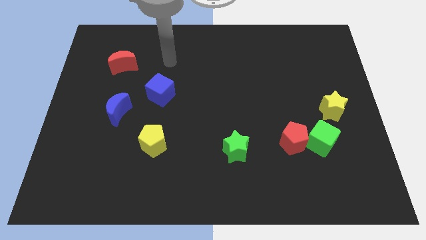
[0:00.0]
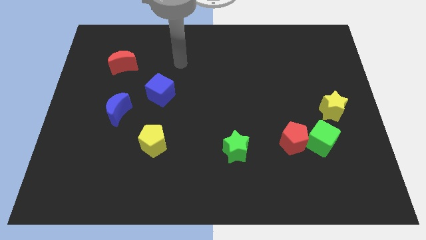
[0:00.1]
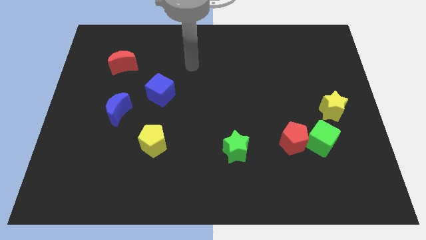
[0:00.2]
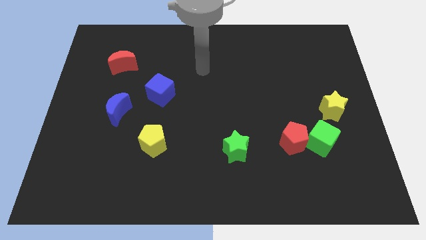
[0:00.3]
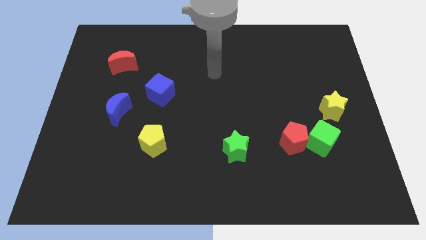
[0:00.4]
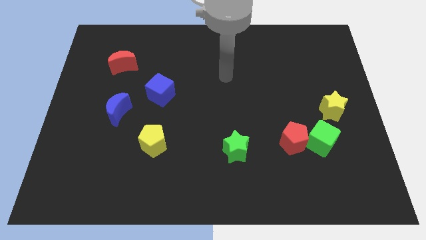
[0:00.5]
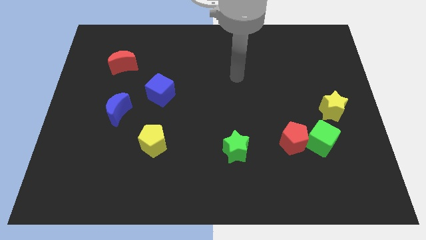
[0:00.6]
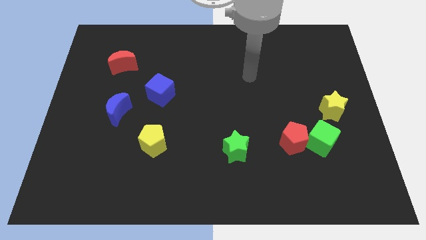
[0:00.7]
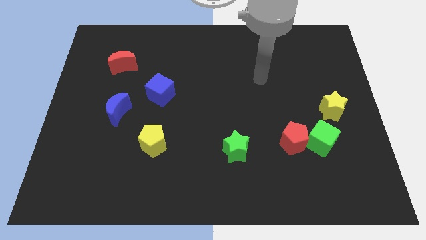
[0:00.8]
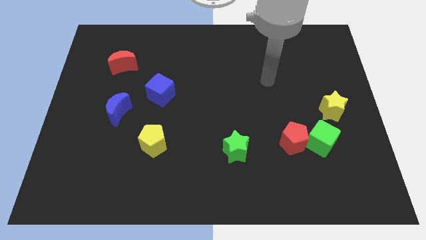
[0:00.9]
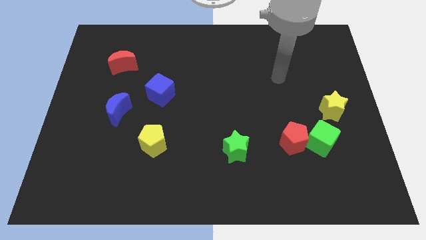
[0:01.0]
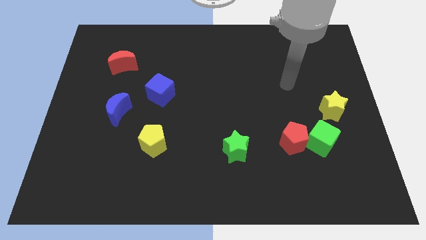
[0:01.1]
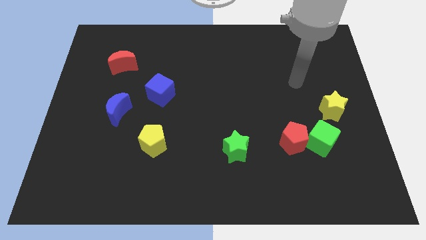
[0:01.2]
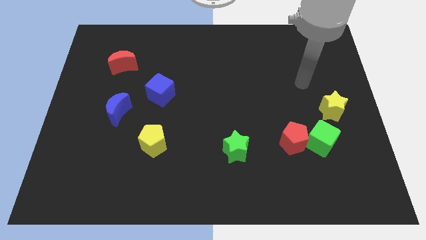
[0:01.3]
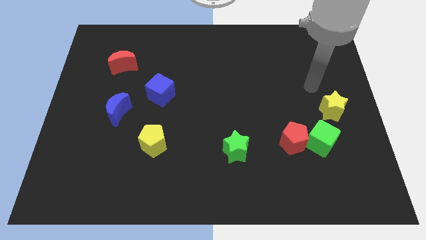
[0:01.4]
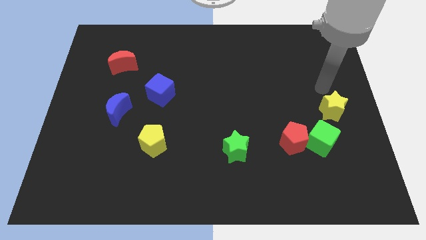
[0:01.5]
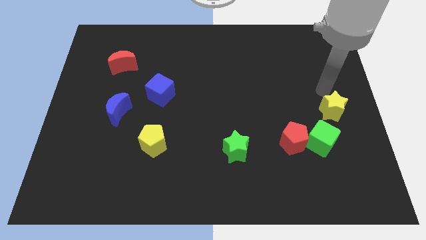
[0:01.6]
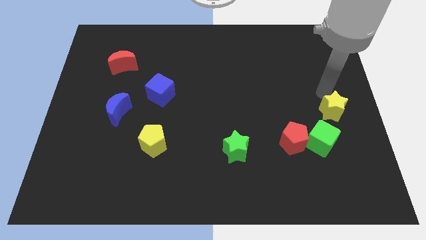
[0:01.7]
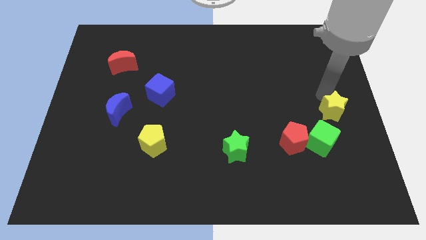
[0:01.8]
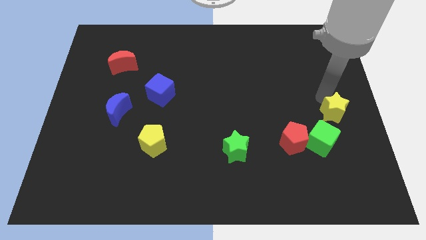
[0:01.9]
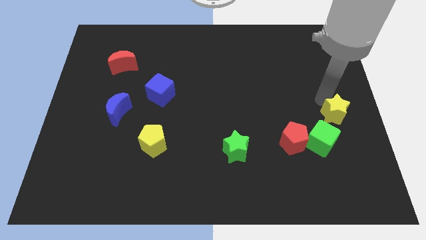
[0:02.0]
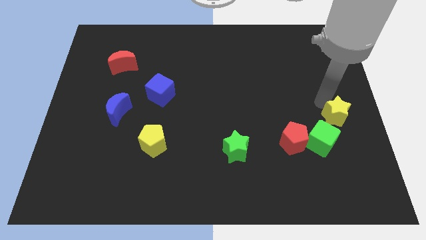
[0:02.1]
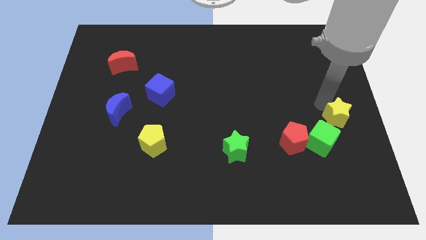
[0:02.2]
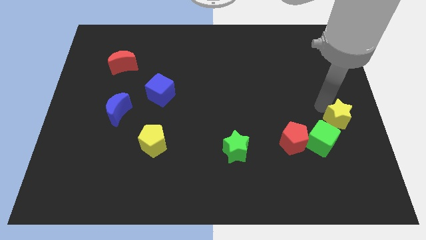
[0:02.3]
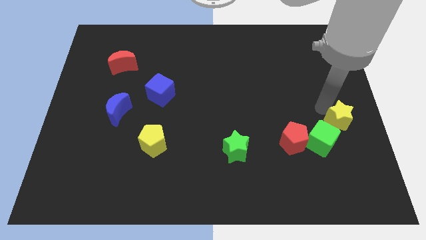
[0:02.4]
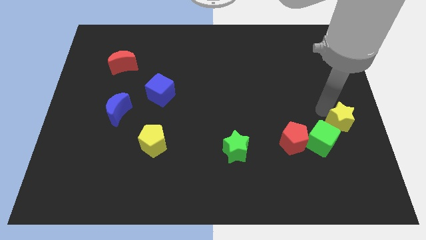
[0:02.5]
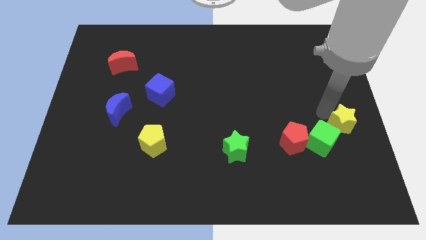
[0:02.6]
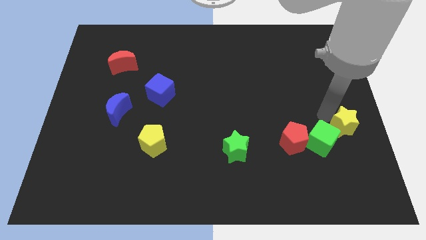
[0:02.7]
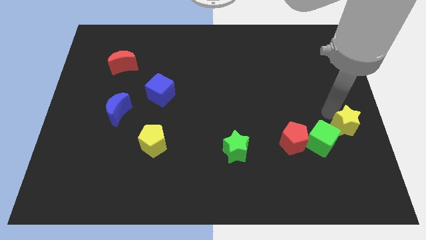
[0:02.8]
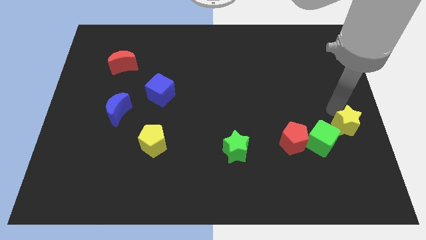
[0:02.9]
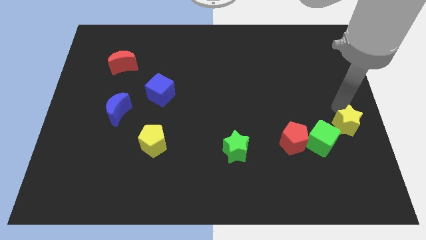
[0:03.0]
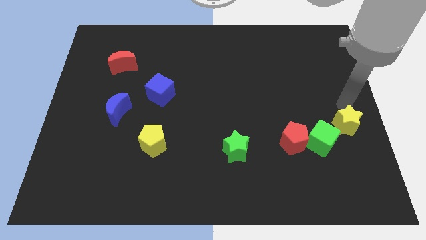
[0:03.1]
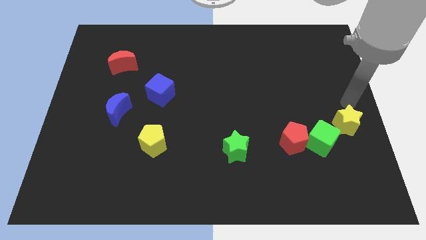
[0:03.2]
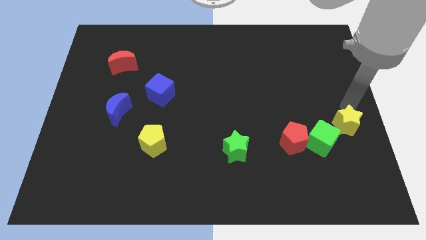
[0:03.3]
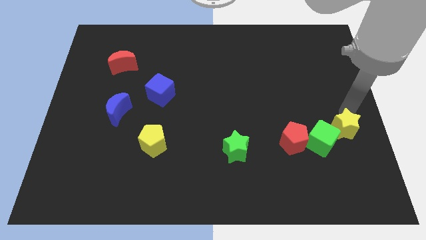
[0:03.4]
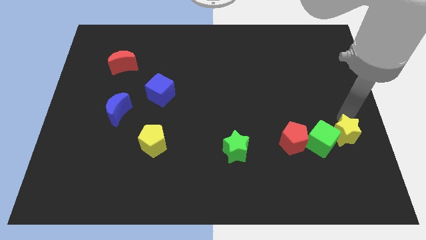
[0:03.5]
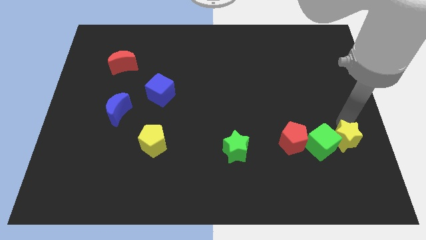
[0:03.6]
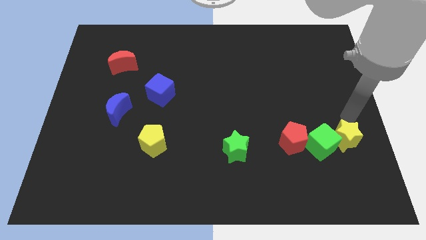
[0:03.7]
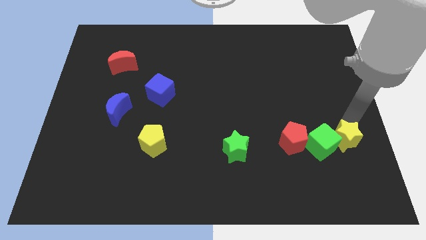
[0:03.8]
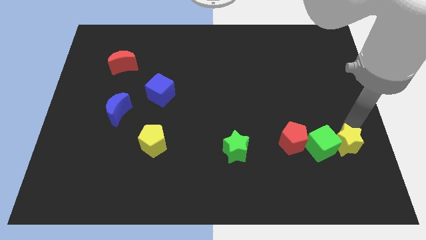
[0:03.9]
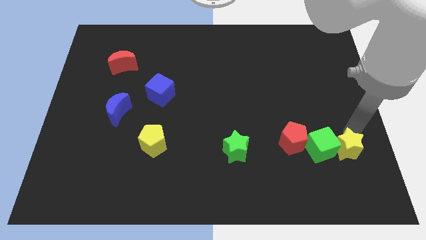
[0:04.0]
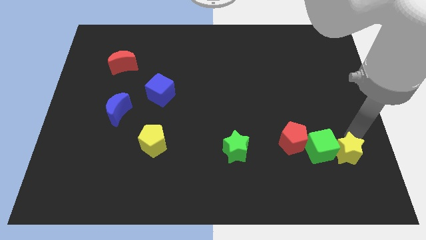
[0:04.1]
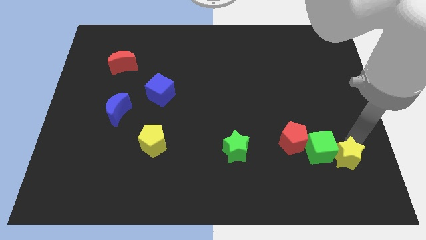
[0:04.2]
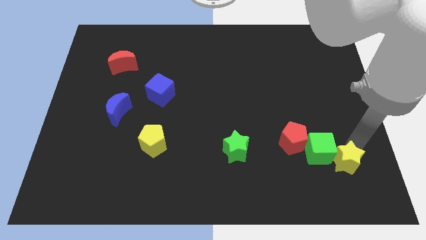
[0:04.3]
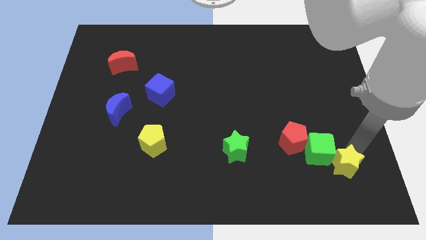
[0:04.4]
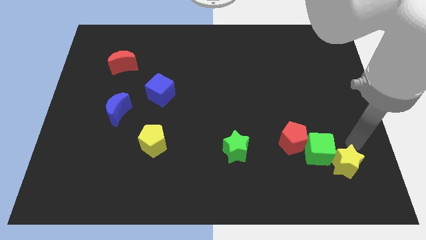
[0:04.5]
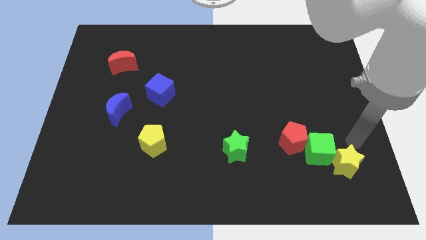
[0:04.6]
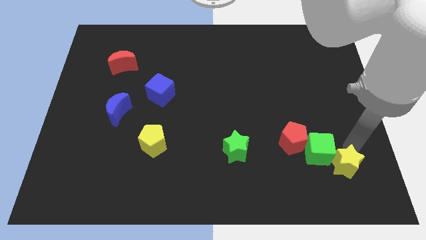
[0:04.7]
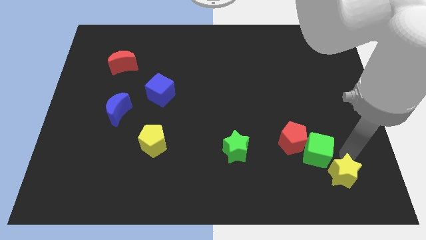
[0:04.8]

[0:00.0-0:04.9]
push the yellow star below the green cube

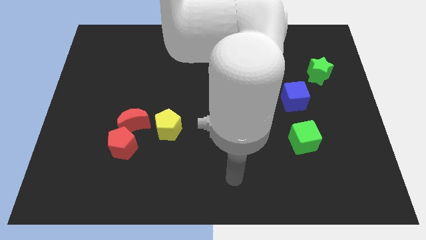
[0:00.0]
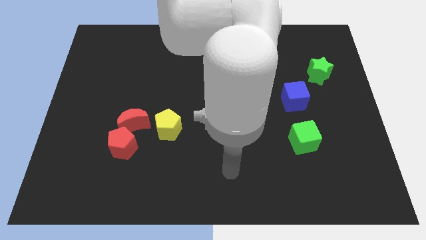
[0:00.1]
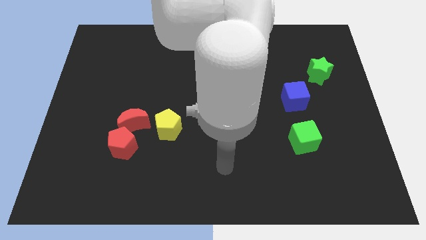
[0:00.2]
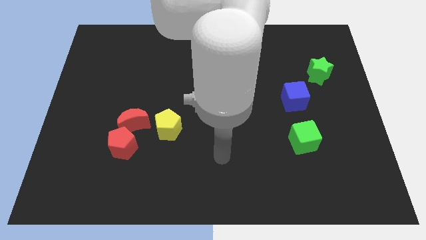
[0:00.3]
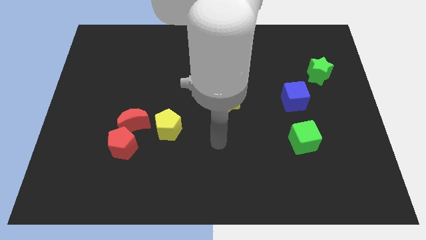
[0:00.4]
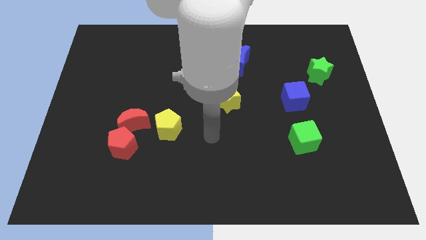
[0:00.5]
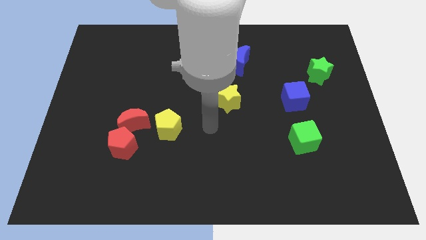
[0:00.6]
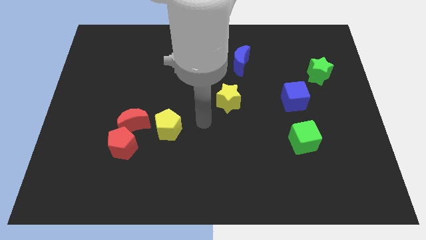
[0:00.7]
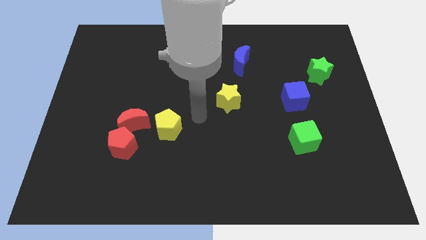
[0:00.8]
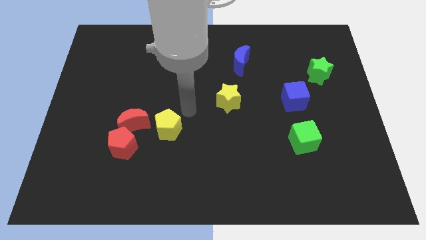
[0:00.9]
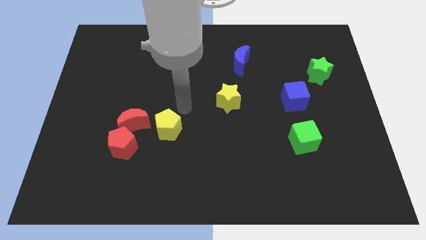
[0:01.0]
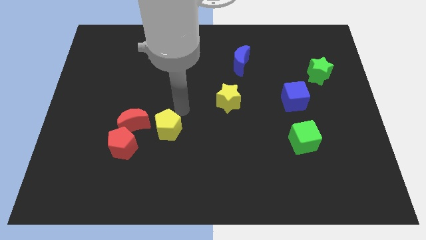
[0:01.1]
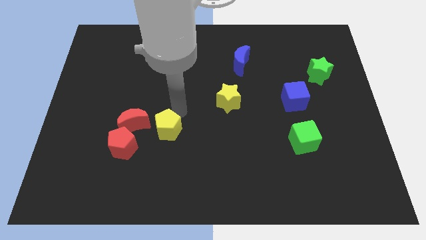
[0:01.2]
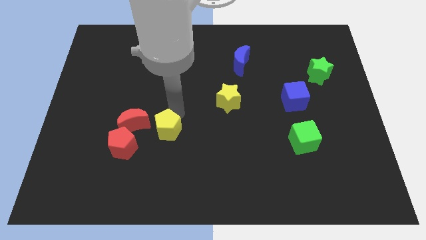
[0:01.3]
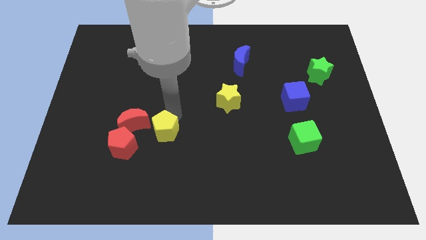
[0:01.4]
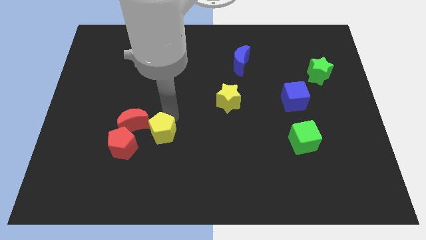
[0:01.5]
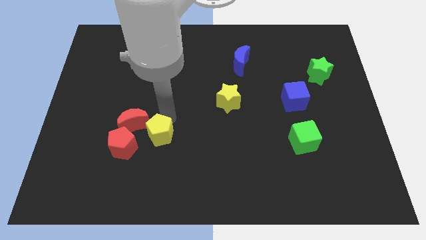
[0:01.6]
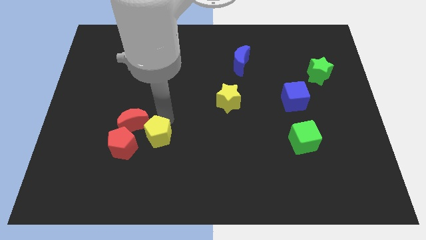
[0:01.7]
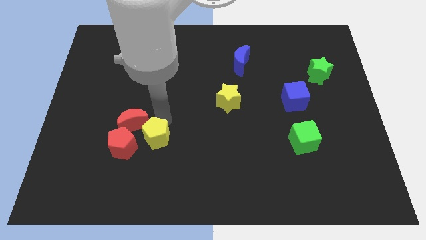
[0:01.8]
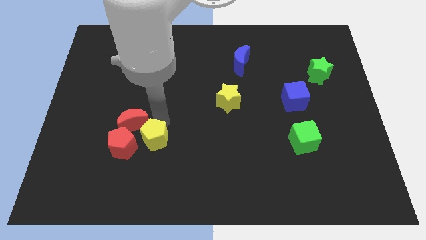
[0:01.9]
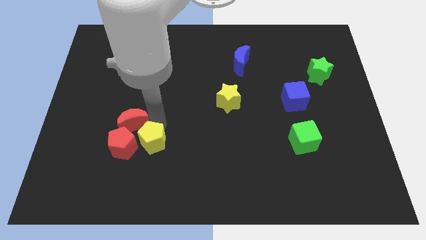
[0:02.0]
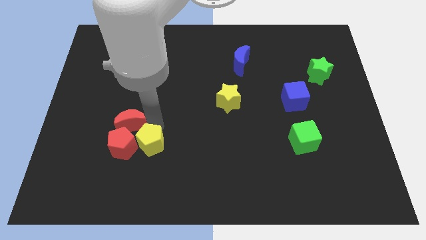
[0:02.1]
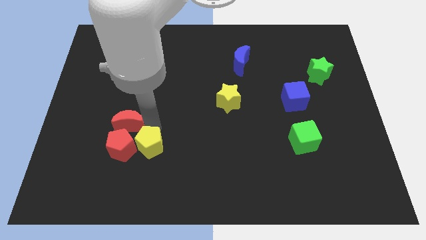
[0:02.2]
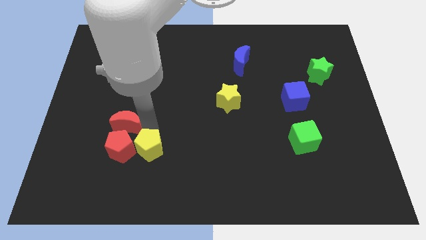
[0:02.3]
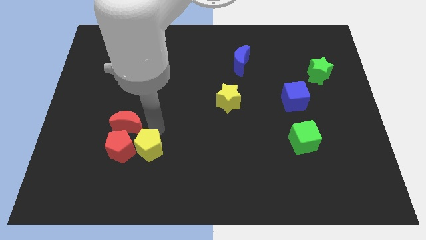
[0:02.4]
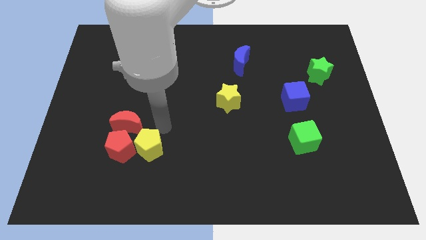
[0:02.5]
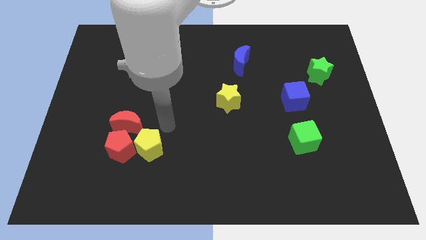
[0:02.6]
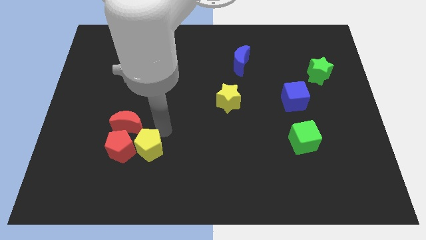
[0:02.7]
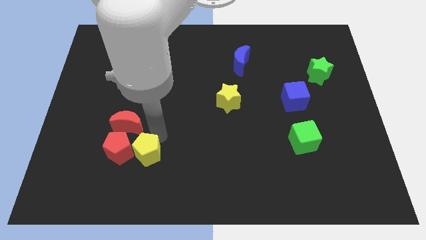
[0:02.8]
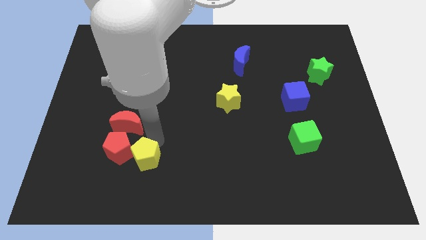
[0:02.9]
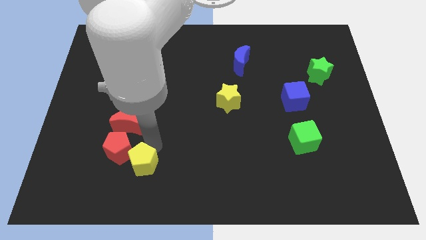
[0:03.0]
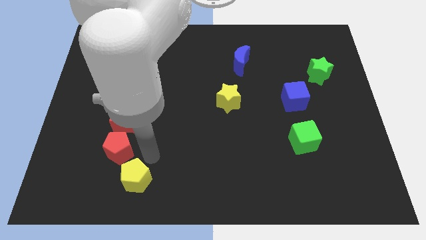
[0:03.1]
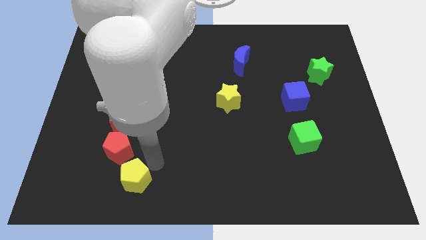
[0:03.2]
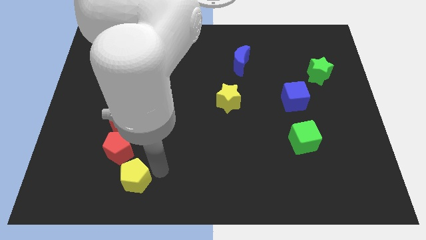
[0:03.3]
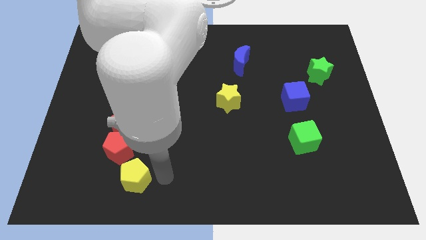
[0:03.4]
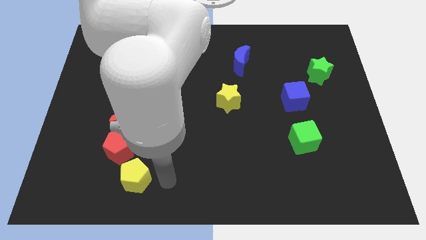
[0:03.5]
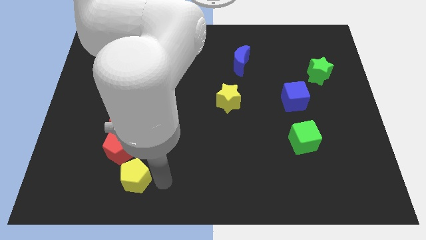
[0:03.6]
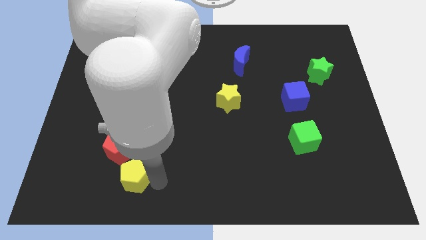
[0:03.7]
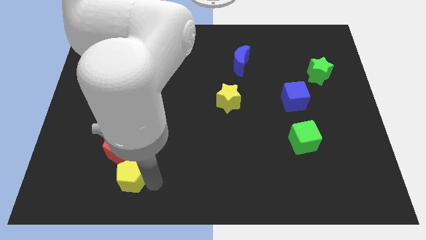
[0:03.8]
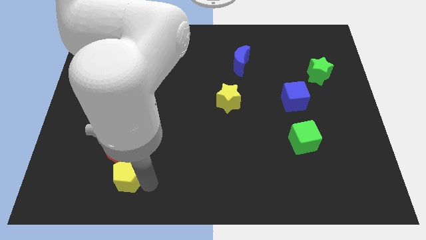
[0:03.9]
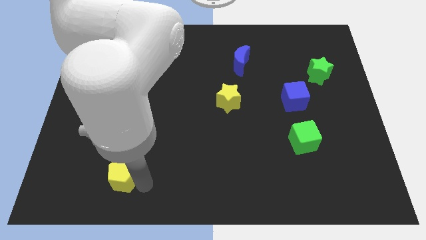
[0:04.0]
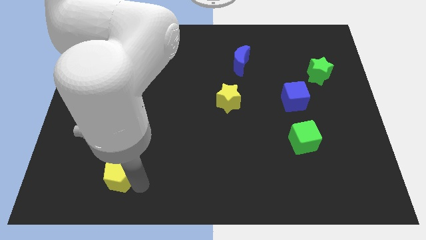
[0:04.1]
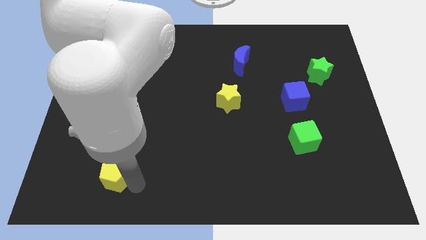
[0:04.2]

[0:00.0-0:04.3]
put the yellow pentagon diagonally down and to the left of the red pentagon
